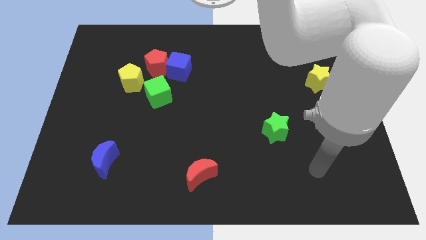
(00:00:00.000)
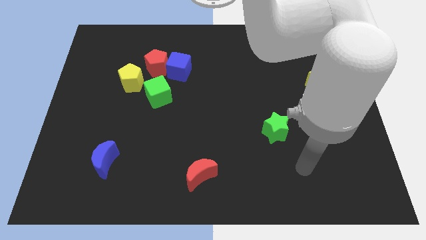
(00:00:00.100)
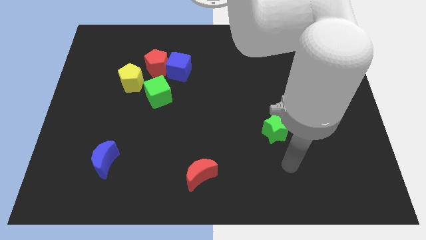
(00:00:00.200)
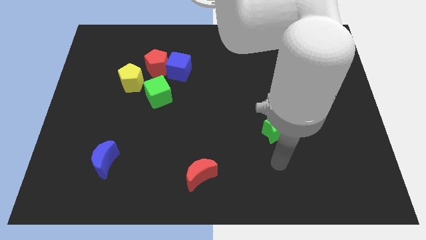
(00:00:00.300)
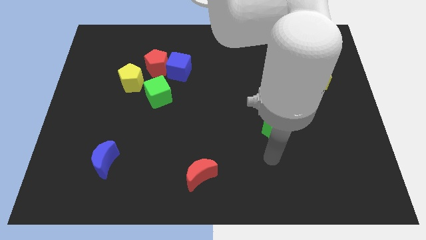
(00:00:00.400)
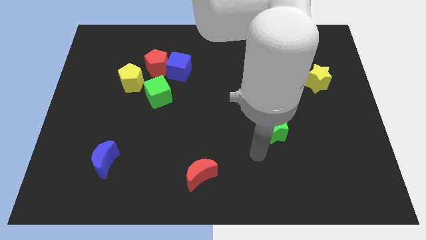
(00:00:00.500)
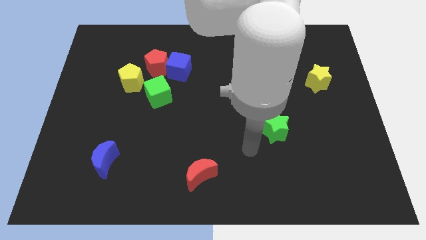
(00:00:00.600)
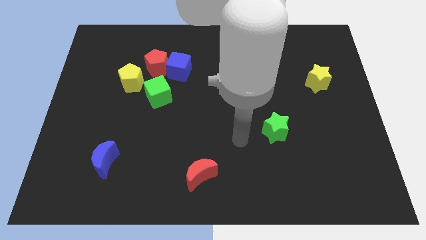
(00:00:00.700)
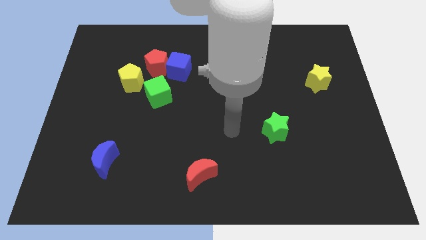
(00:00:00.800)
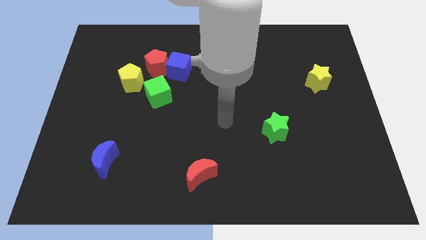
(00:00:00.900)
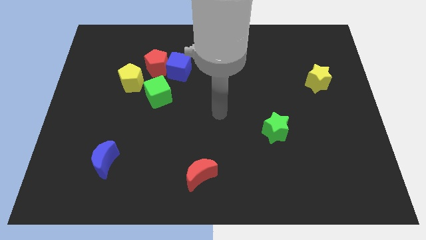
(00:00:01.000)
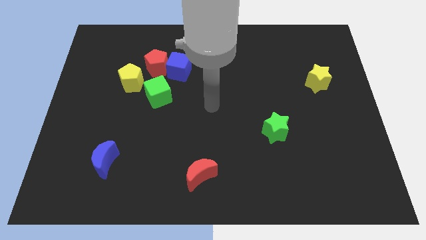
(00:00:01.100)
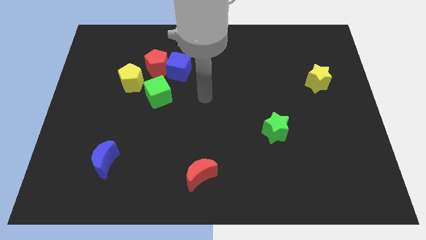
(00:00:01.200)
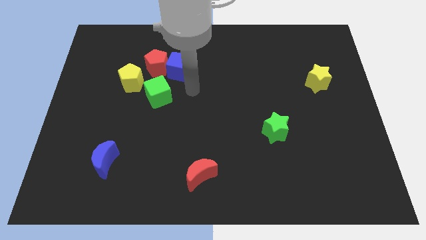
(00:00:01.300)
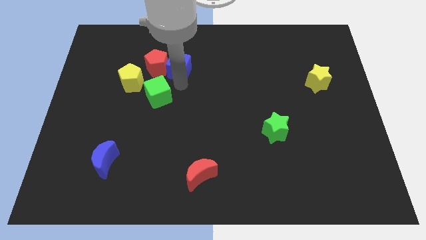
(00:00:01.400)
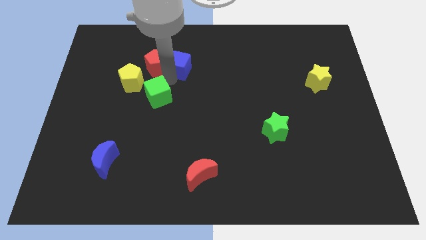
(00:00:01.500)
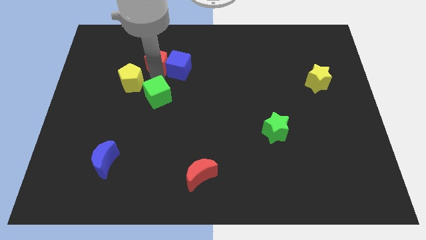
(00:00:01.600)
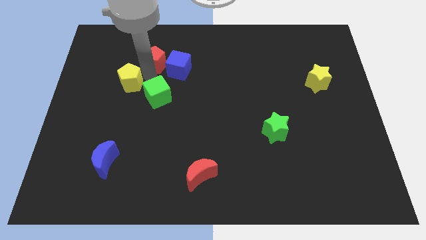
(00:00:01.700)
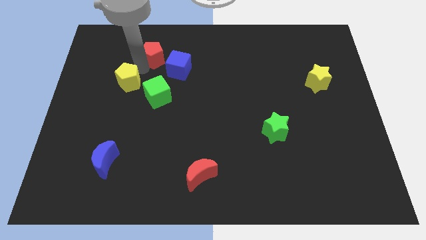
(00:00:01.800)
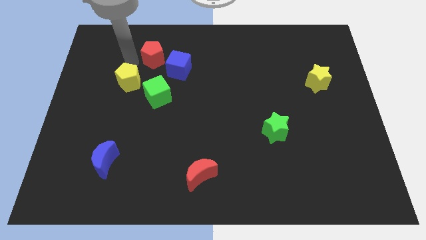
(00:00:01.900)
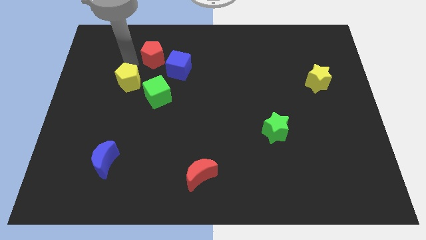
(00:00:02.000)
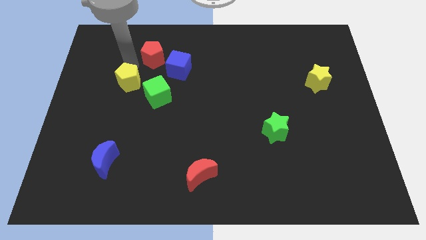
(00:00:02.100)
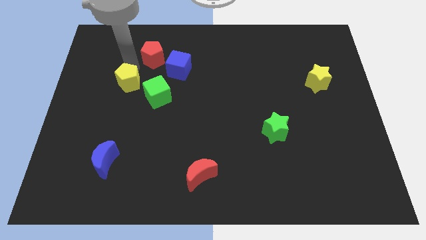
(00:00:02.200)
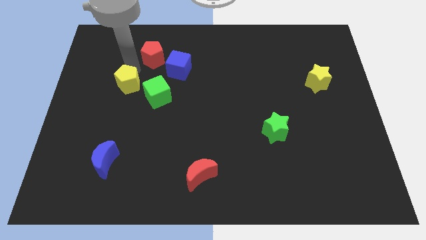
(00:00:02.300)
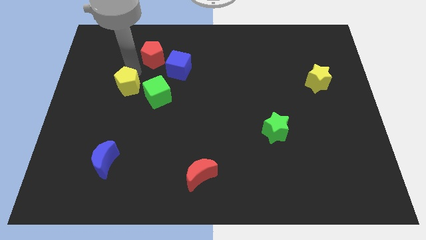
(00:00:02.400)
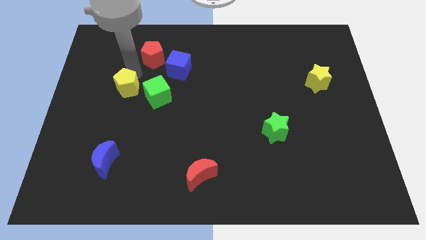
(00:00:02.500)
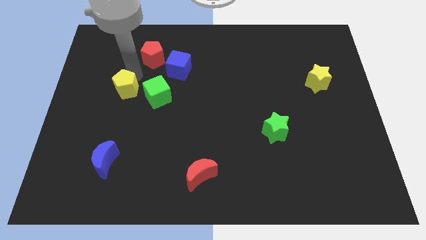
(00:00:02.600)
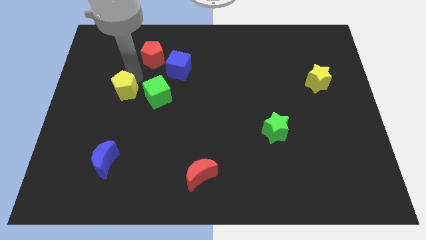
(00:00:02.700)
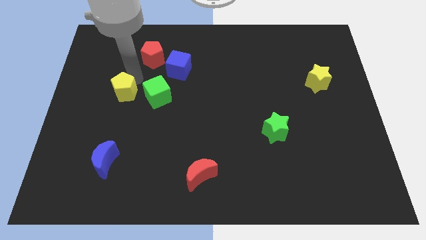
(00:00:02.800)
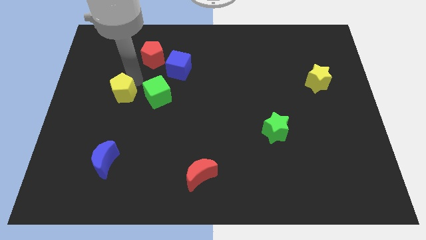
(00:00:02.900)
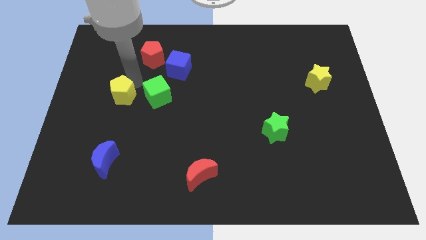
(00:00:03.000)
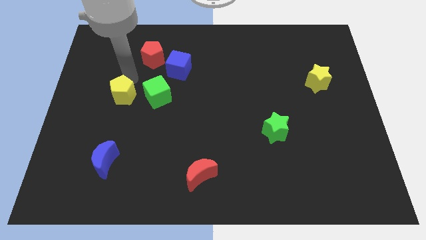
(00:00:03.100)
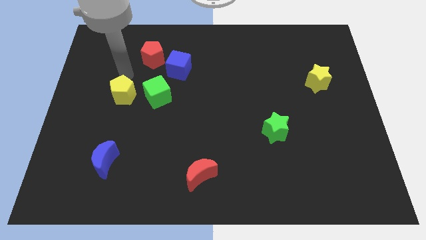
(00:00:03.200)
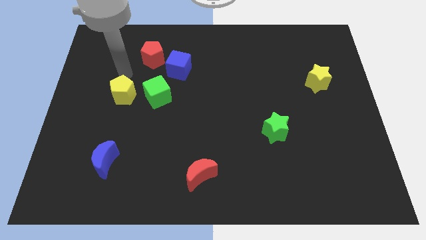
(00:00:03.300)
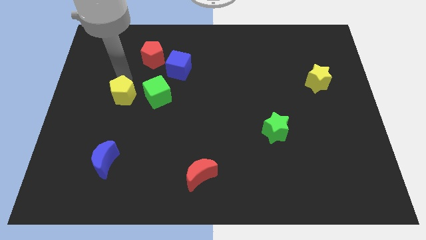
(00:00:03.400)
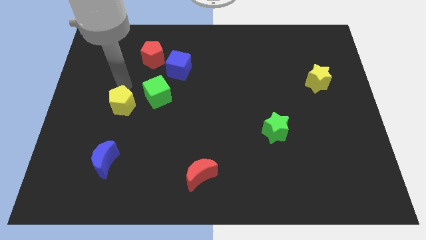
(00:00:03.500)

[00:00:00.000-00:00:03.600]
slide the yellow pentagon a bit down

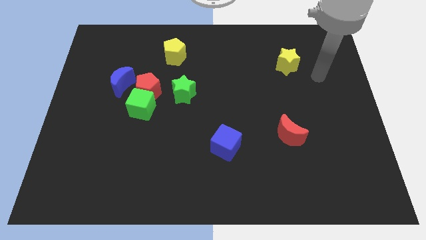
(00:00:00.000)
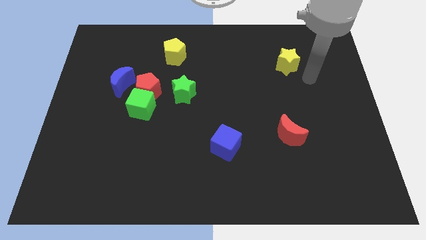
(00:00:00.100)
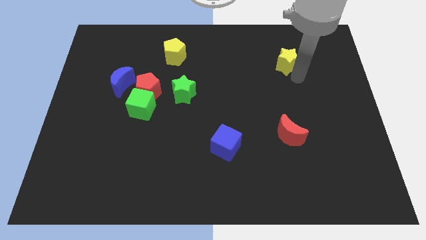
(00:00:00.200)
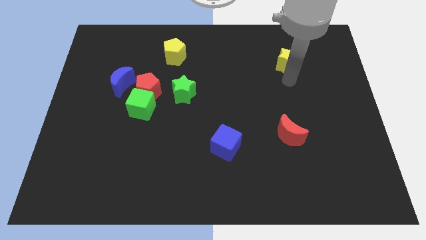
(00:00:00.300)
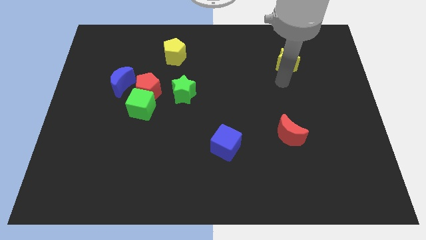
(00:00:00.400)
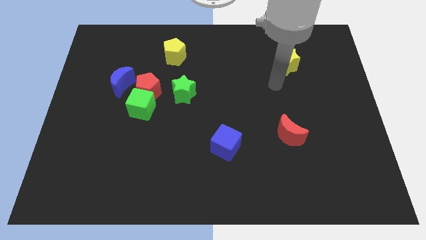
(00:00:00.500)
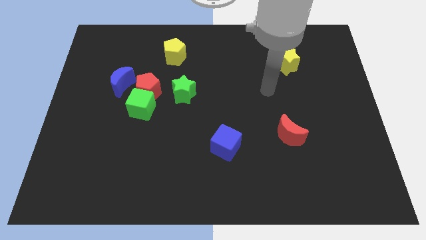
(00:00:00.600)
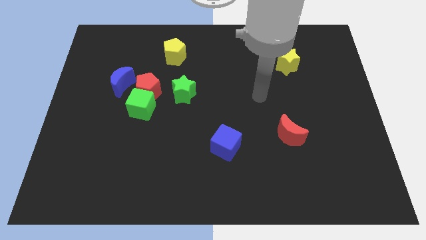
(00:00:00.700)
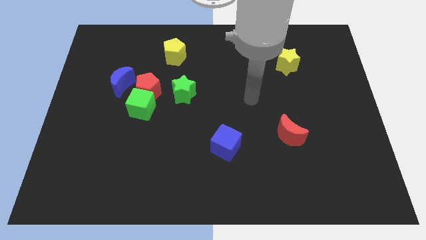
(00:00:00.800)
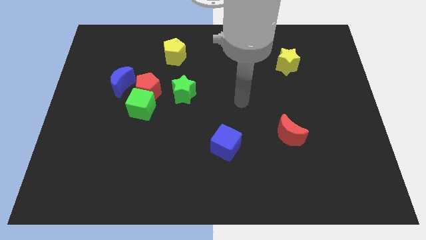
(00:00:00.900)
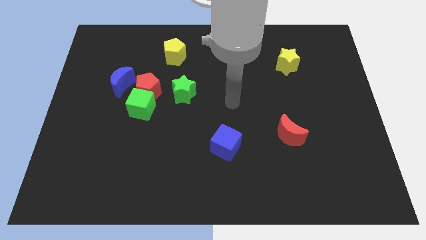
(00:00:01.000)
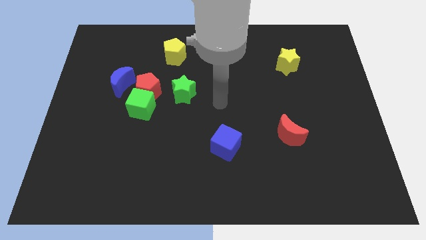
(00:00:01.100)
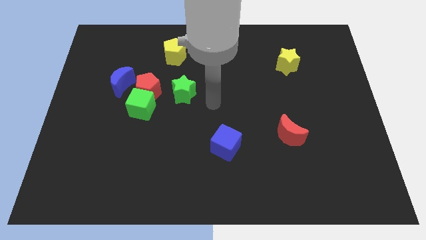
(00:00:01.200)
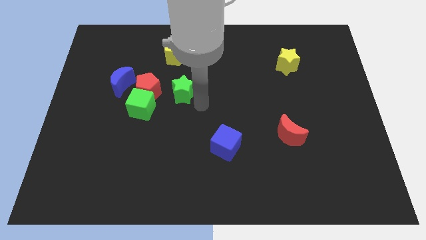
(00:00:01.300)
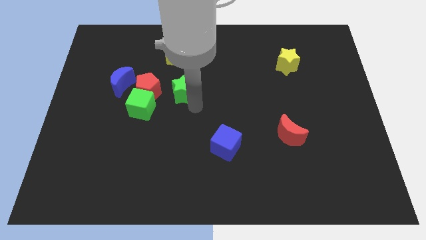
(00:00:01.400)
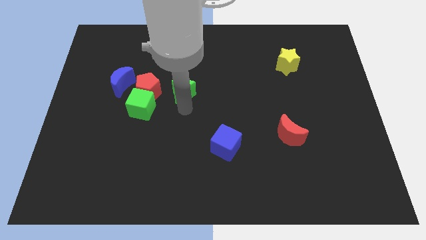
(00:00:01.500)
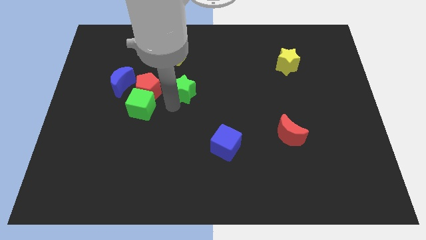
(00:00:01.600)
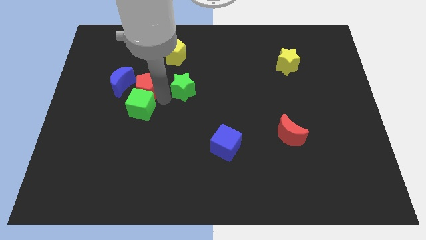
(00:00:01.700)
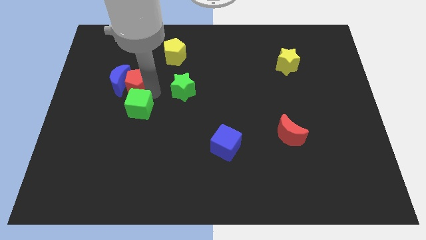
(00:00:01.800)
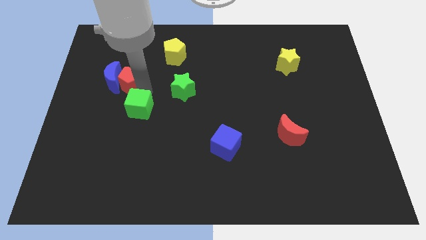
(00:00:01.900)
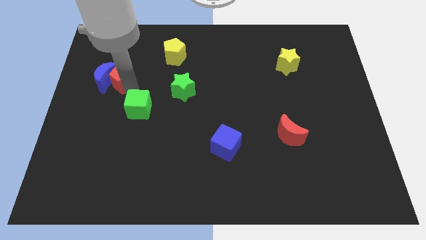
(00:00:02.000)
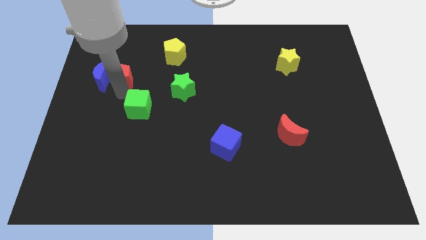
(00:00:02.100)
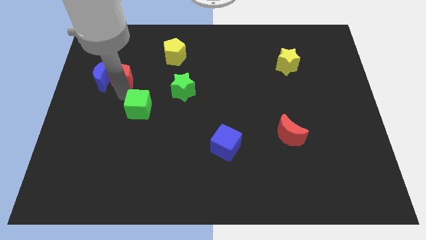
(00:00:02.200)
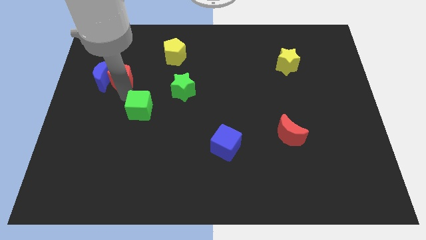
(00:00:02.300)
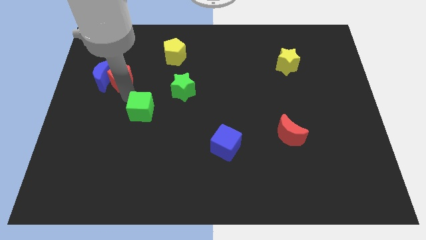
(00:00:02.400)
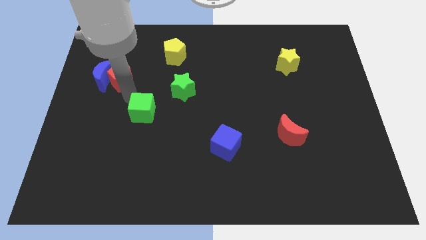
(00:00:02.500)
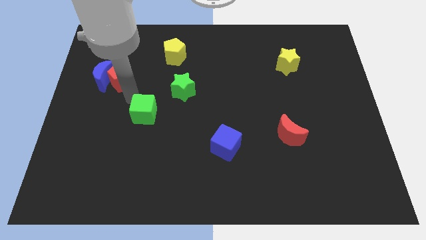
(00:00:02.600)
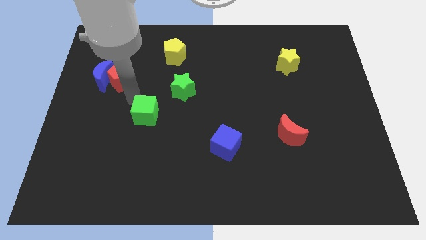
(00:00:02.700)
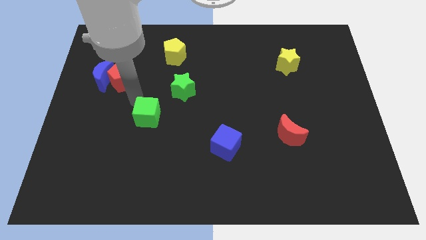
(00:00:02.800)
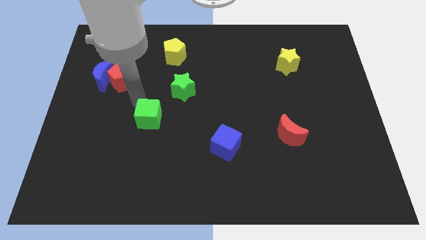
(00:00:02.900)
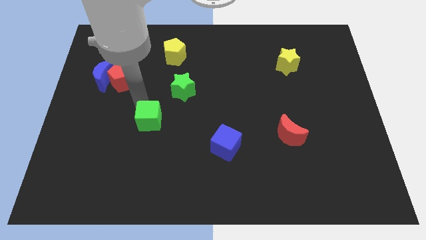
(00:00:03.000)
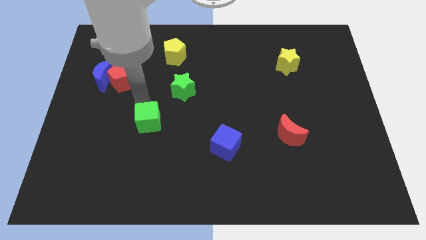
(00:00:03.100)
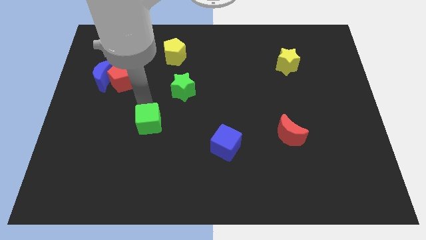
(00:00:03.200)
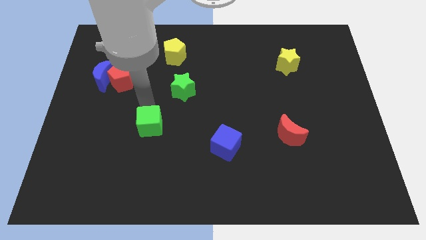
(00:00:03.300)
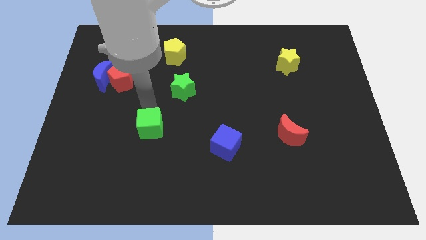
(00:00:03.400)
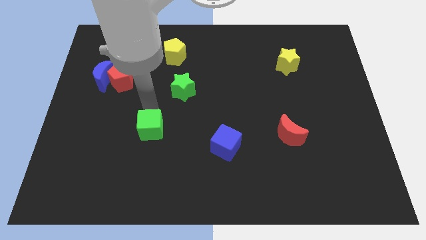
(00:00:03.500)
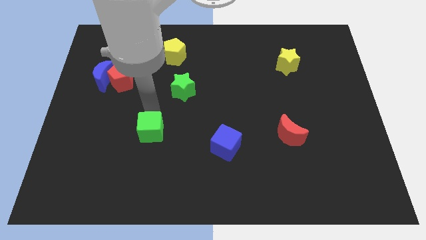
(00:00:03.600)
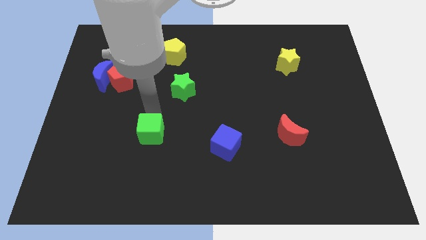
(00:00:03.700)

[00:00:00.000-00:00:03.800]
slightly move the green cube diagonally downwards and right

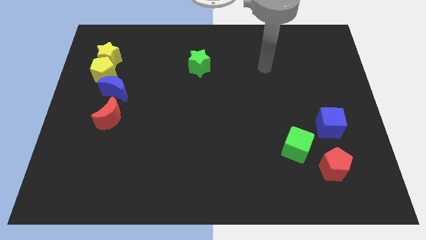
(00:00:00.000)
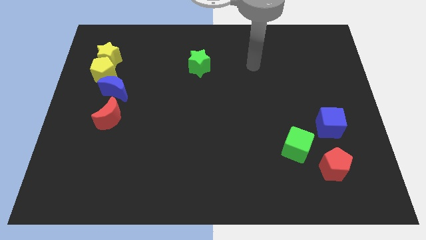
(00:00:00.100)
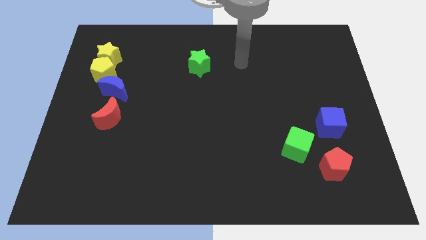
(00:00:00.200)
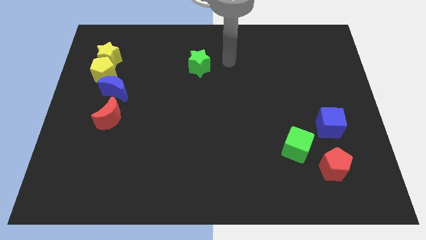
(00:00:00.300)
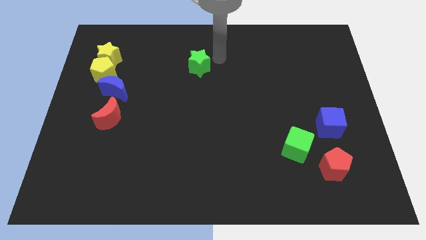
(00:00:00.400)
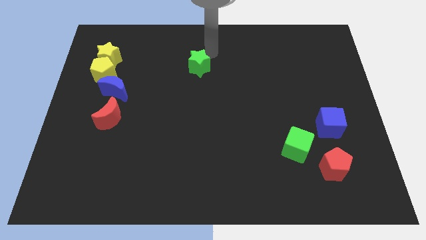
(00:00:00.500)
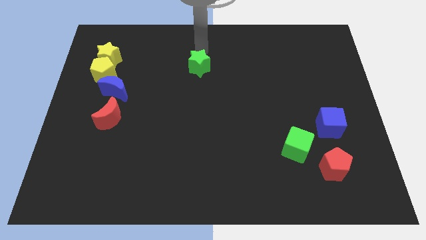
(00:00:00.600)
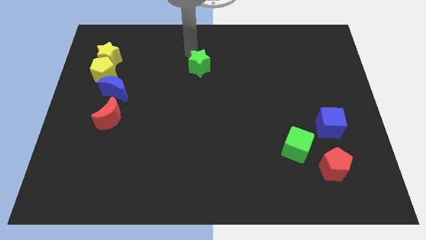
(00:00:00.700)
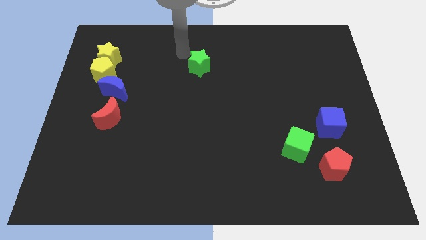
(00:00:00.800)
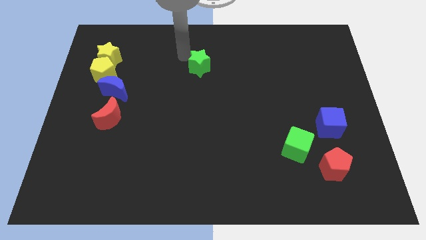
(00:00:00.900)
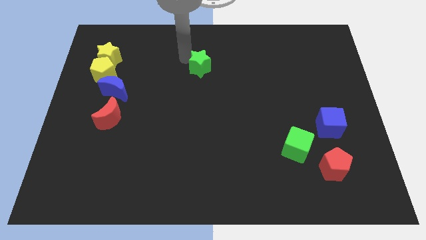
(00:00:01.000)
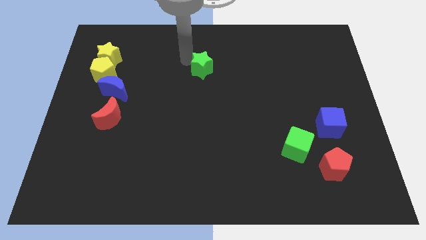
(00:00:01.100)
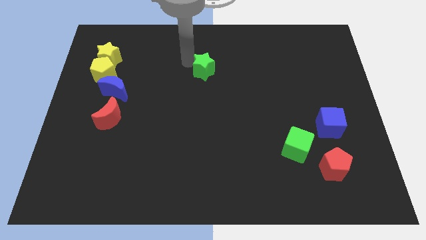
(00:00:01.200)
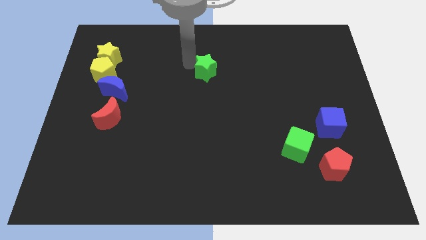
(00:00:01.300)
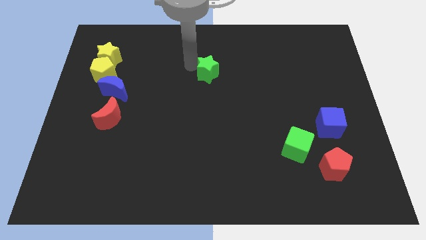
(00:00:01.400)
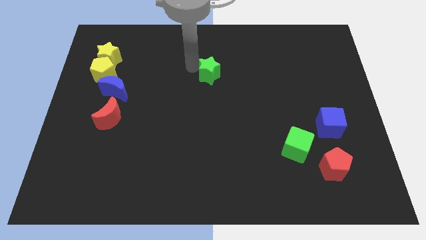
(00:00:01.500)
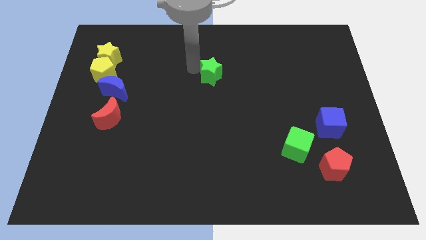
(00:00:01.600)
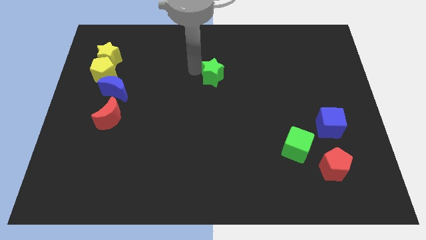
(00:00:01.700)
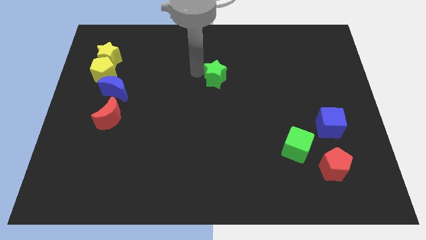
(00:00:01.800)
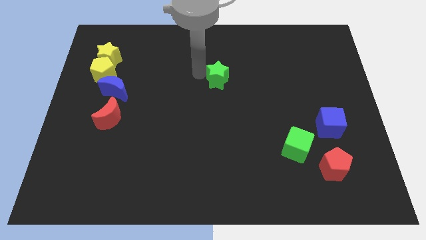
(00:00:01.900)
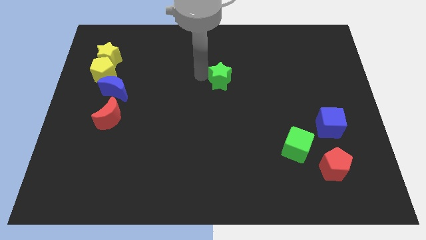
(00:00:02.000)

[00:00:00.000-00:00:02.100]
slightly push the green star downwards and right
